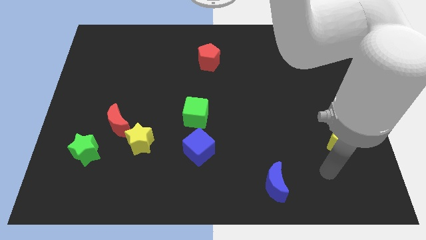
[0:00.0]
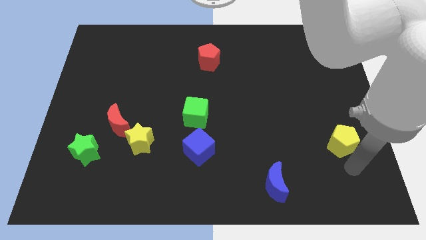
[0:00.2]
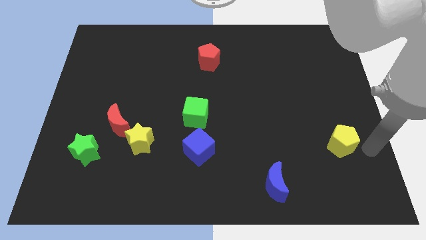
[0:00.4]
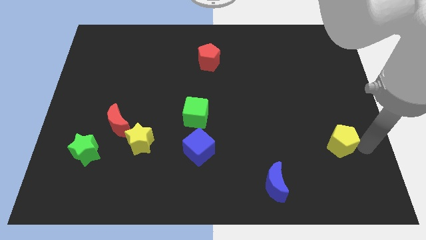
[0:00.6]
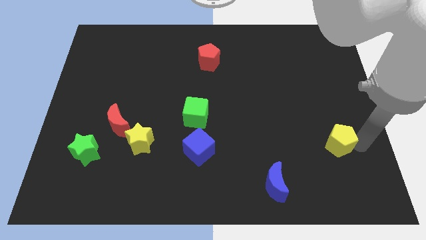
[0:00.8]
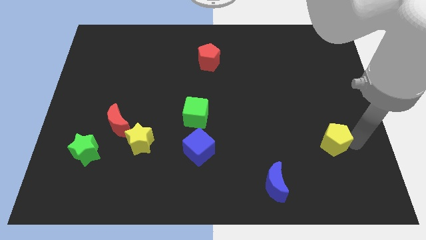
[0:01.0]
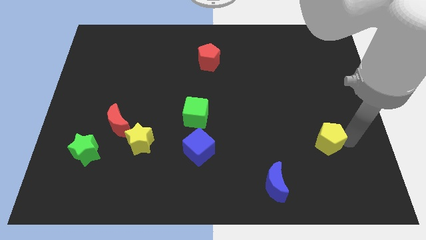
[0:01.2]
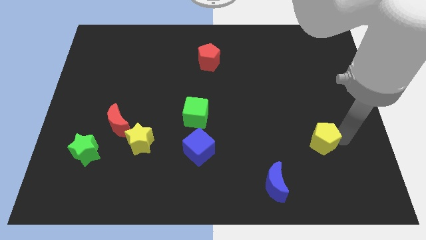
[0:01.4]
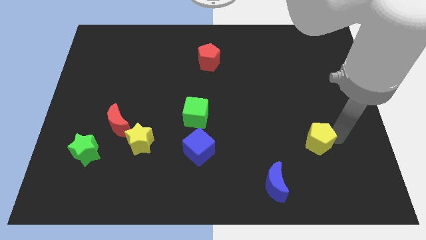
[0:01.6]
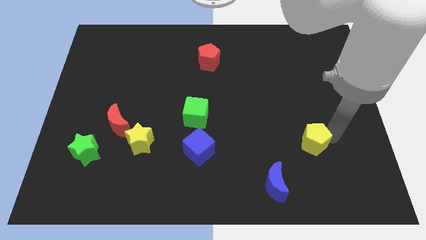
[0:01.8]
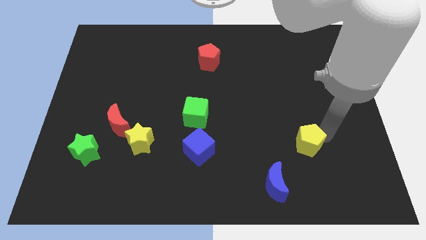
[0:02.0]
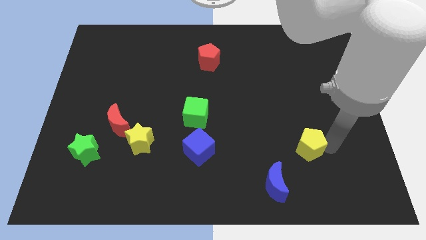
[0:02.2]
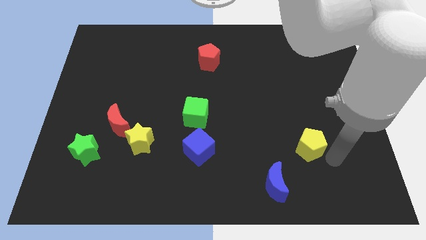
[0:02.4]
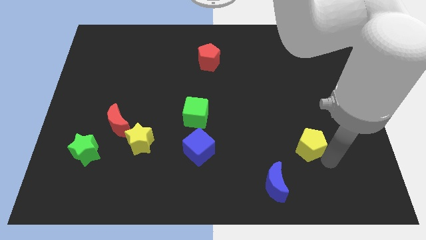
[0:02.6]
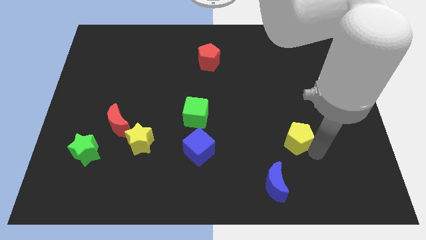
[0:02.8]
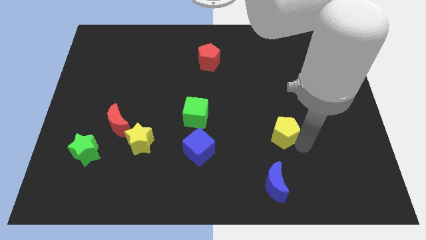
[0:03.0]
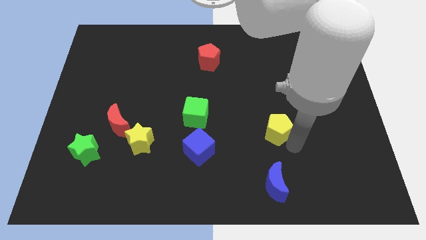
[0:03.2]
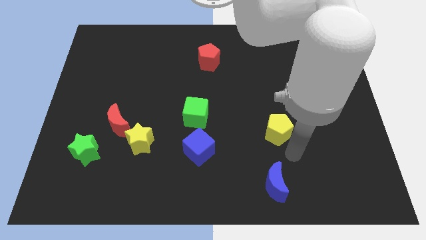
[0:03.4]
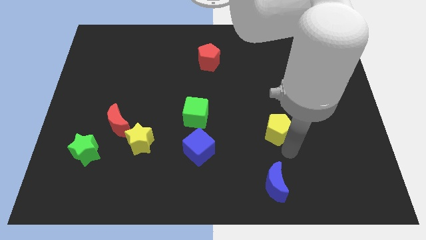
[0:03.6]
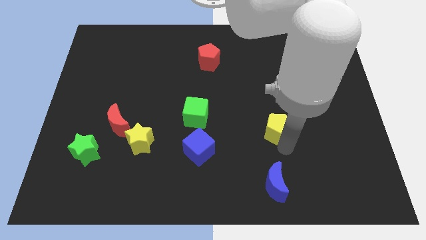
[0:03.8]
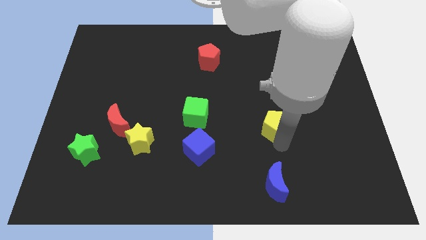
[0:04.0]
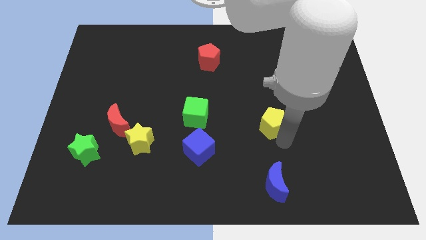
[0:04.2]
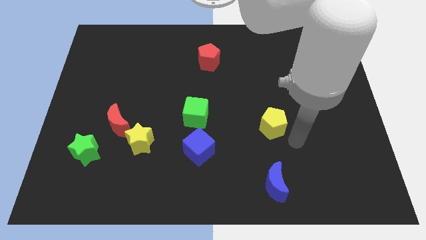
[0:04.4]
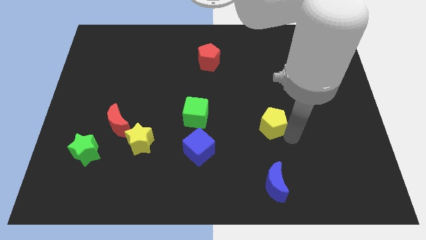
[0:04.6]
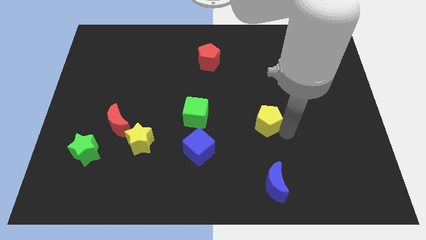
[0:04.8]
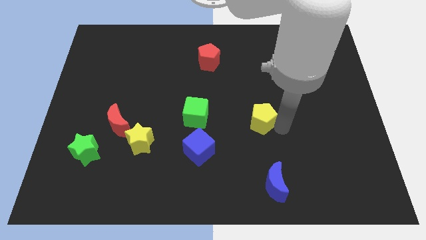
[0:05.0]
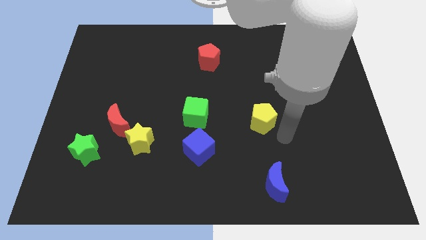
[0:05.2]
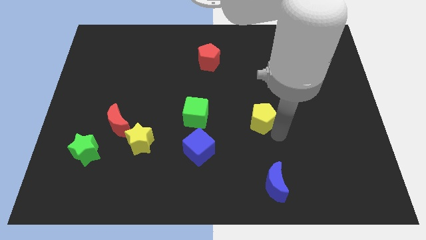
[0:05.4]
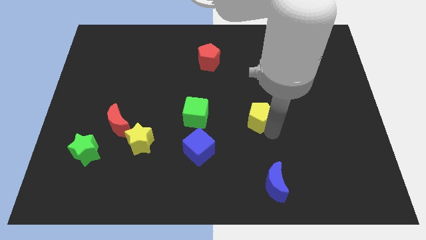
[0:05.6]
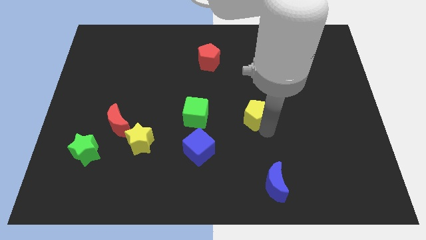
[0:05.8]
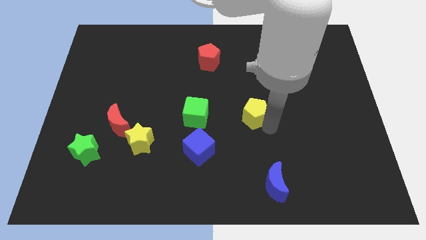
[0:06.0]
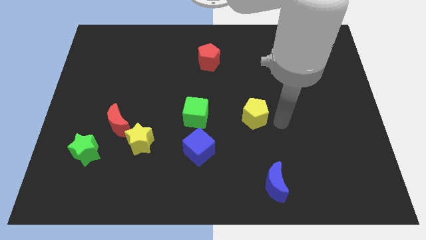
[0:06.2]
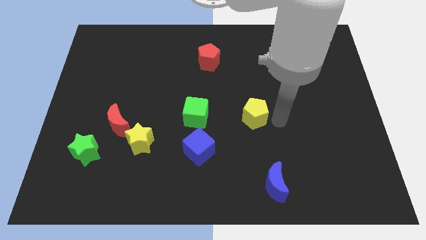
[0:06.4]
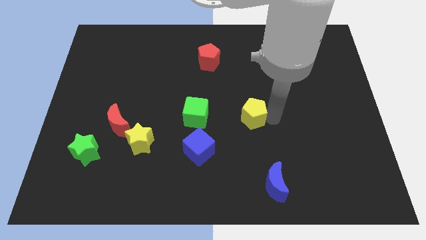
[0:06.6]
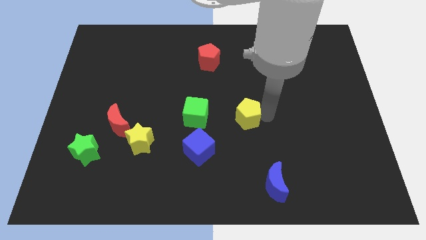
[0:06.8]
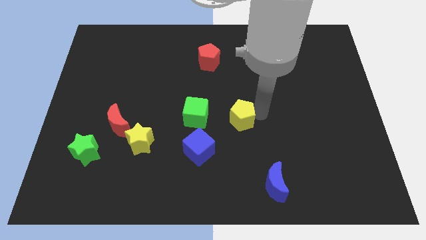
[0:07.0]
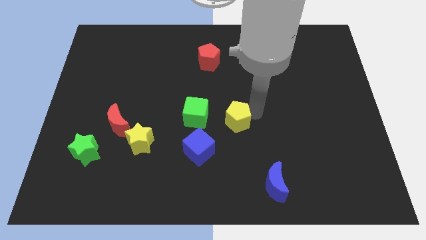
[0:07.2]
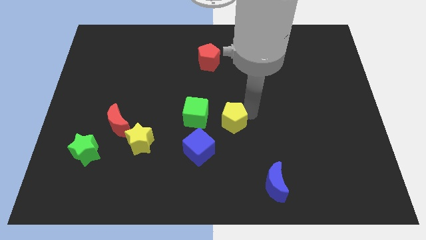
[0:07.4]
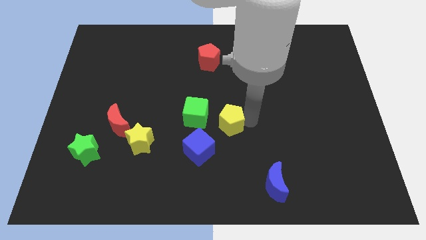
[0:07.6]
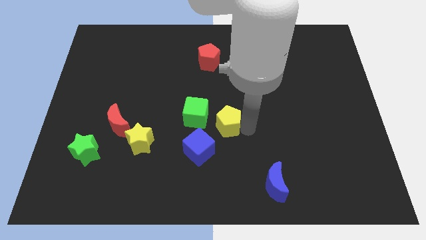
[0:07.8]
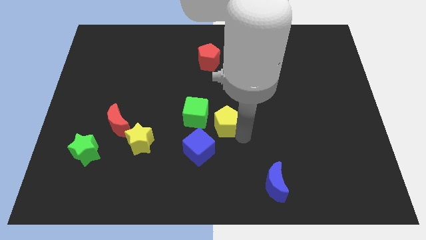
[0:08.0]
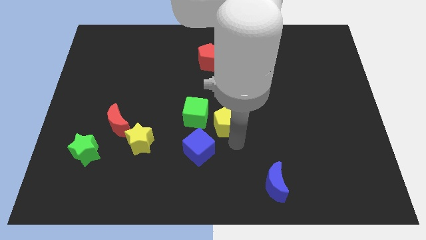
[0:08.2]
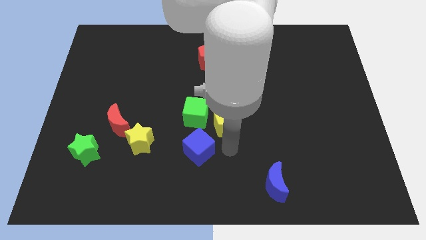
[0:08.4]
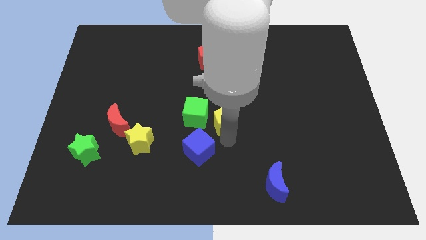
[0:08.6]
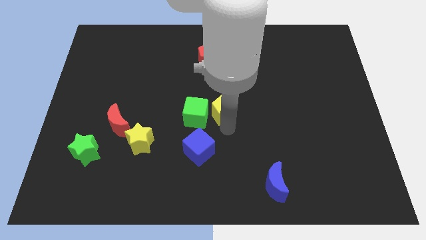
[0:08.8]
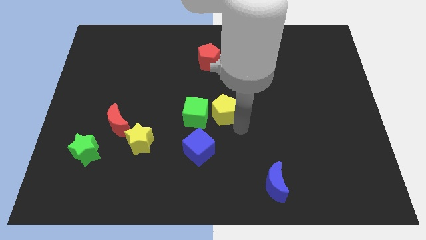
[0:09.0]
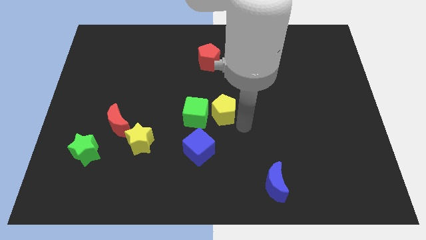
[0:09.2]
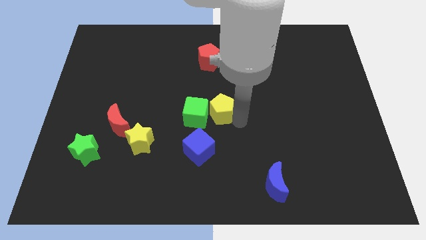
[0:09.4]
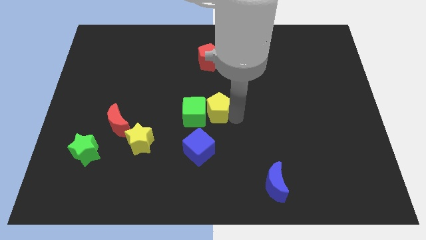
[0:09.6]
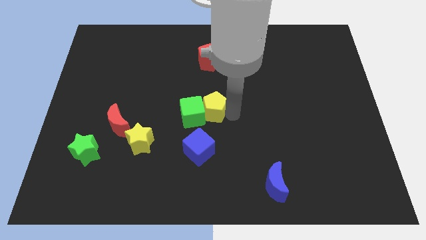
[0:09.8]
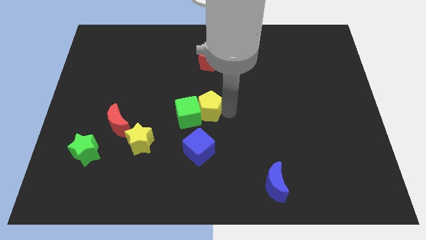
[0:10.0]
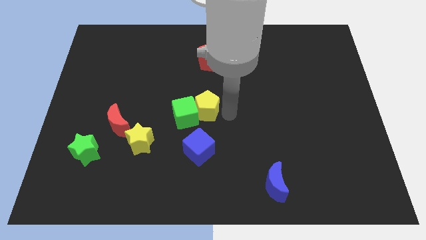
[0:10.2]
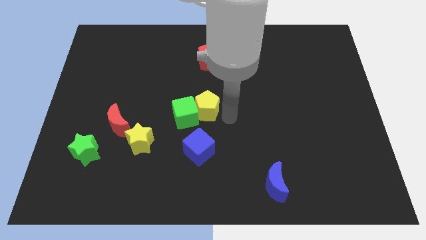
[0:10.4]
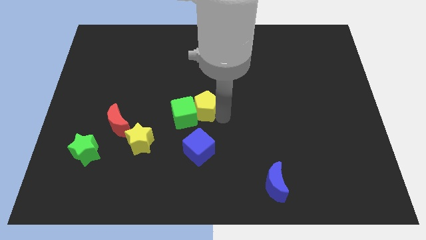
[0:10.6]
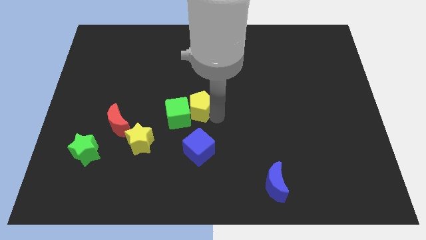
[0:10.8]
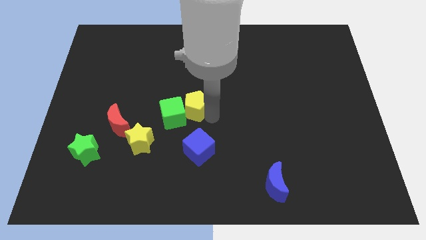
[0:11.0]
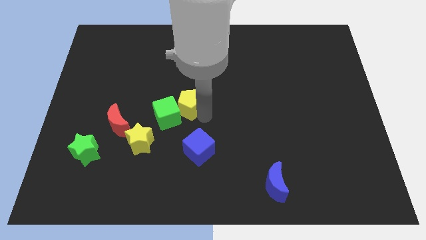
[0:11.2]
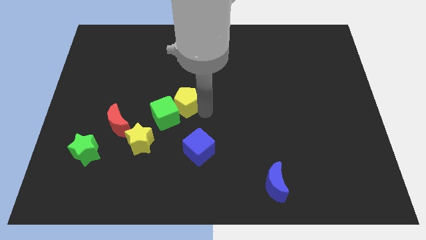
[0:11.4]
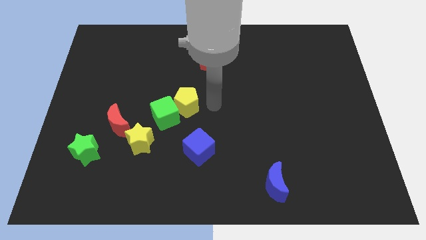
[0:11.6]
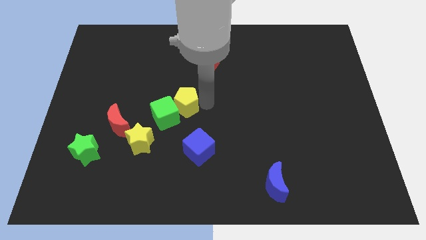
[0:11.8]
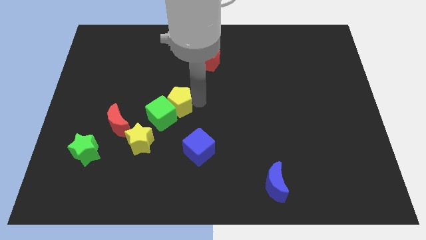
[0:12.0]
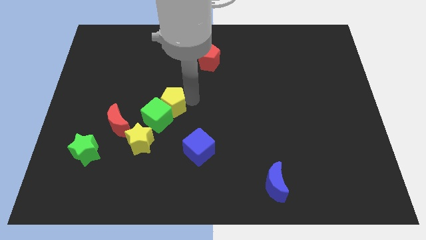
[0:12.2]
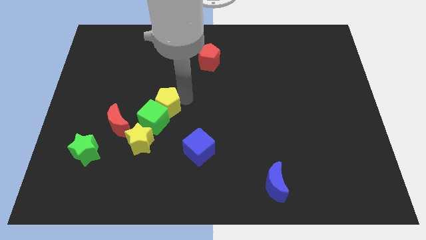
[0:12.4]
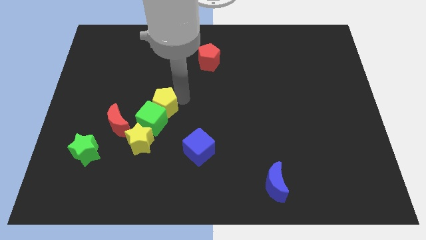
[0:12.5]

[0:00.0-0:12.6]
put the yellow pentagon to the top of the yellow star
